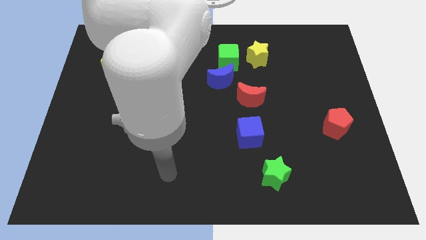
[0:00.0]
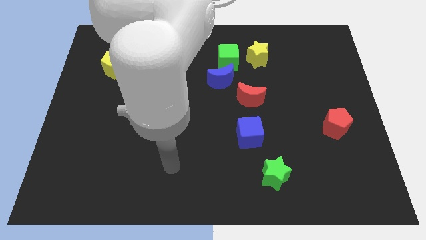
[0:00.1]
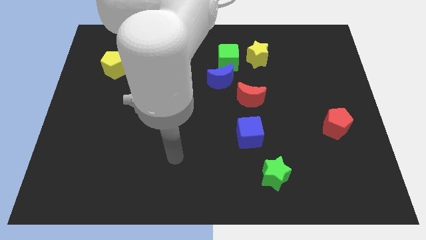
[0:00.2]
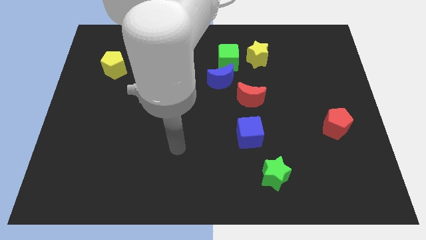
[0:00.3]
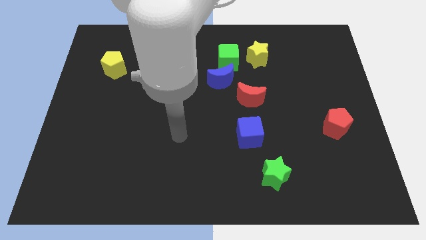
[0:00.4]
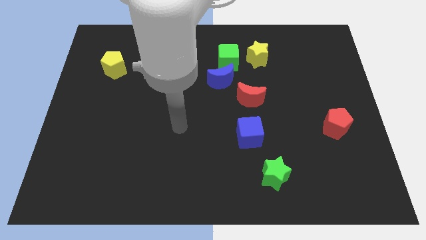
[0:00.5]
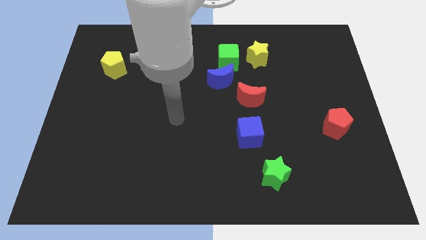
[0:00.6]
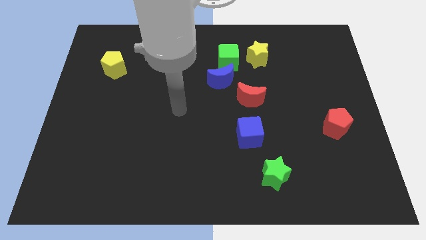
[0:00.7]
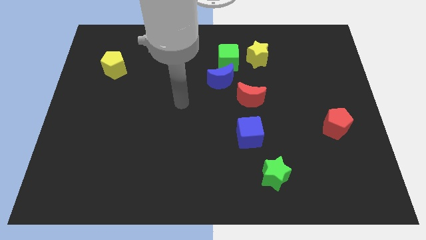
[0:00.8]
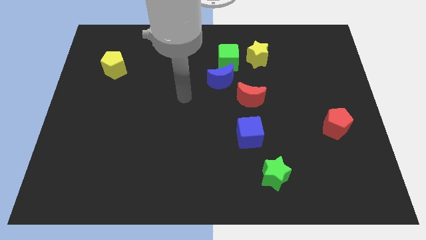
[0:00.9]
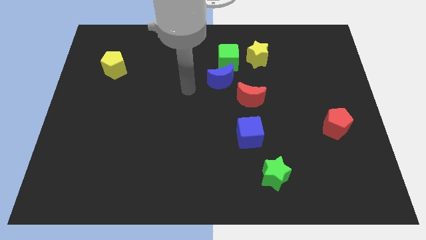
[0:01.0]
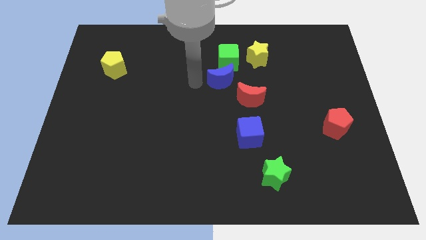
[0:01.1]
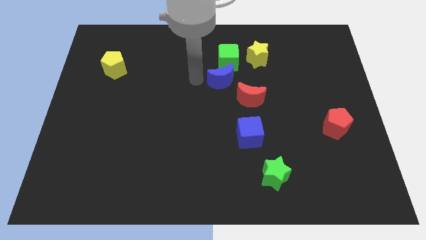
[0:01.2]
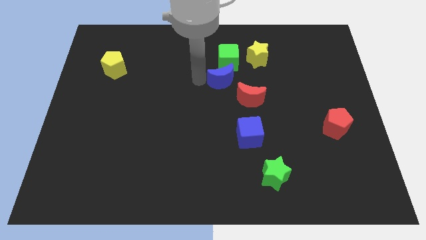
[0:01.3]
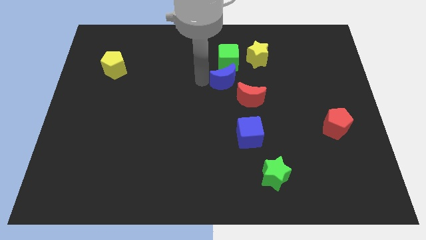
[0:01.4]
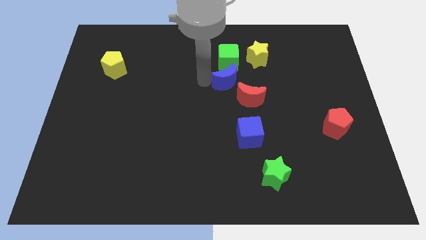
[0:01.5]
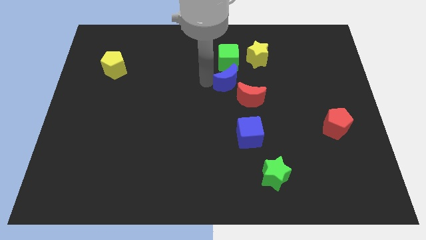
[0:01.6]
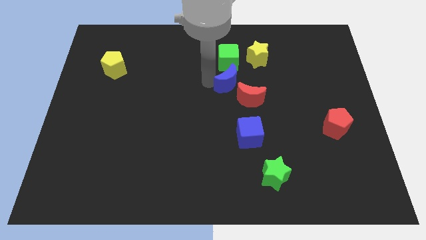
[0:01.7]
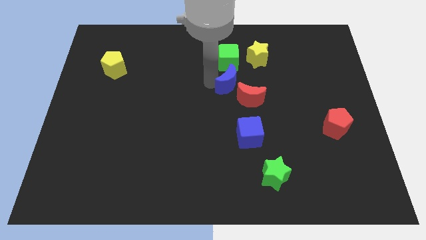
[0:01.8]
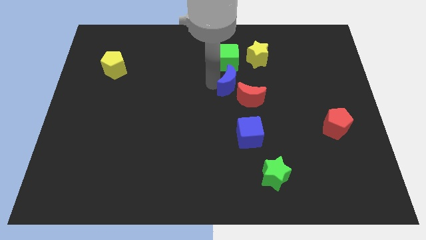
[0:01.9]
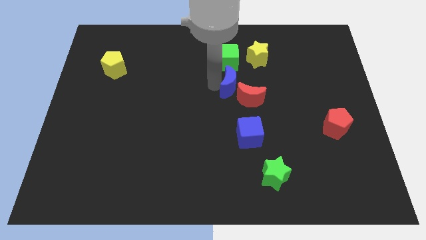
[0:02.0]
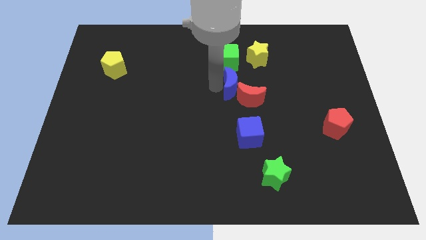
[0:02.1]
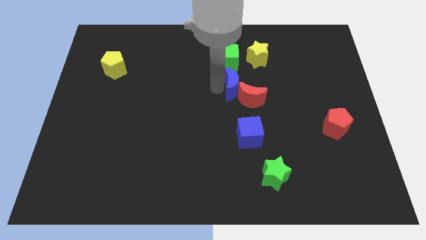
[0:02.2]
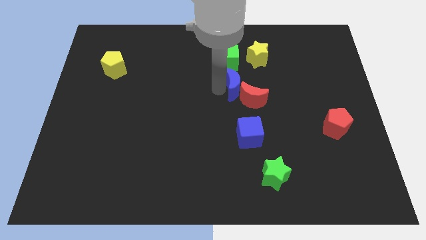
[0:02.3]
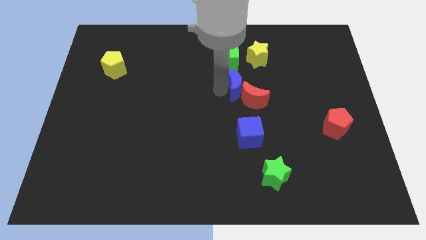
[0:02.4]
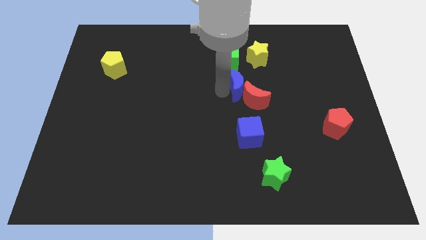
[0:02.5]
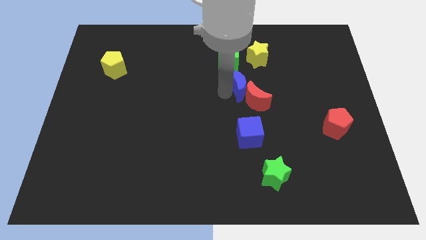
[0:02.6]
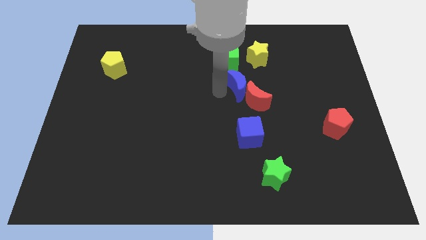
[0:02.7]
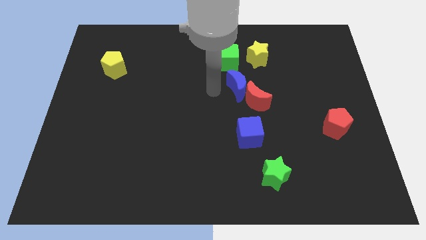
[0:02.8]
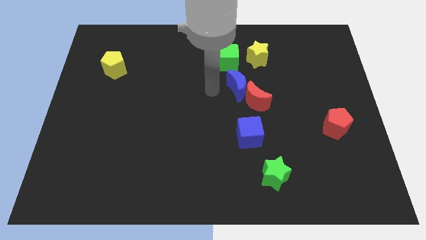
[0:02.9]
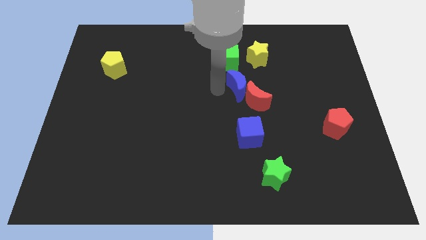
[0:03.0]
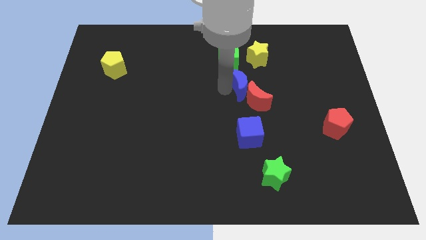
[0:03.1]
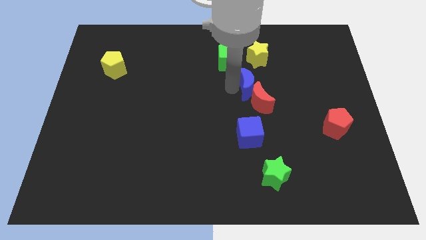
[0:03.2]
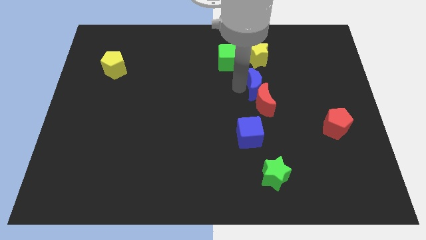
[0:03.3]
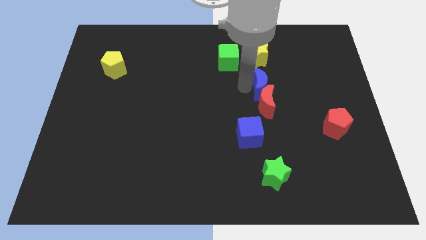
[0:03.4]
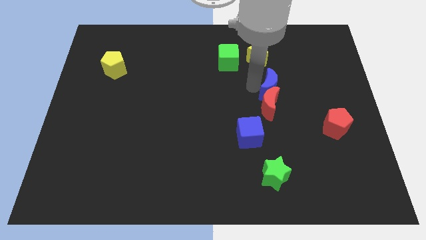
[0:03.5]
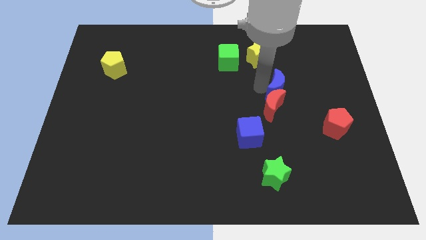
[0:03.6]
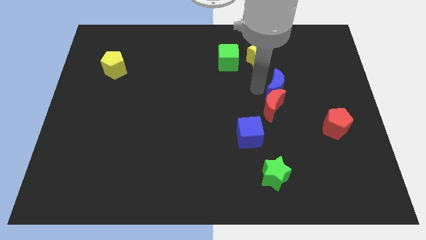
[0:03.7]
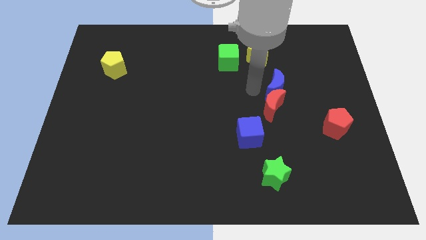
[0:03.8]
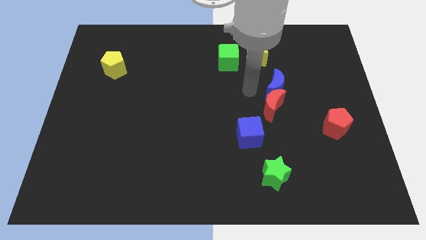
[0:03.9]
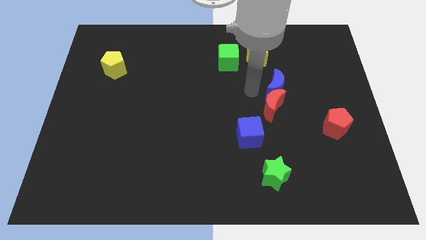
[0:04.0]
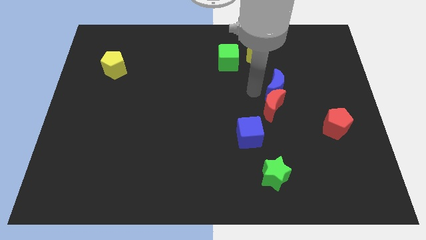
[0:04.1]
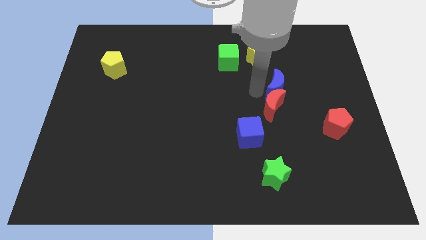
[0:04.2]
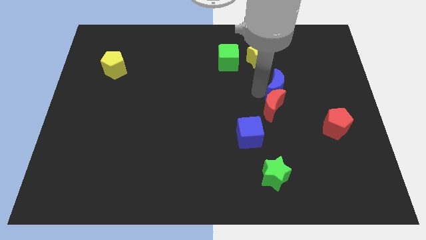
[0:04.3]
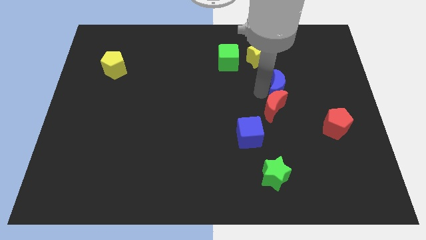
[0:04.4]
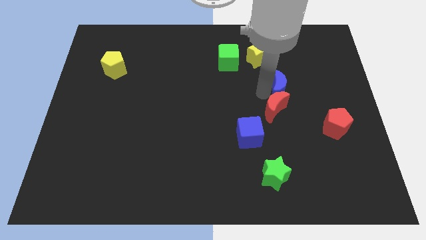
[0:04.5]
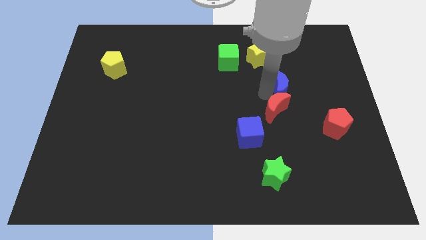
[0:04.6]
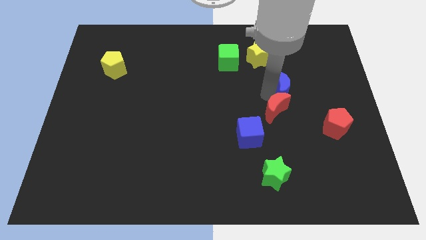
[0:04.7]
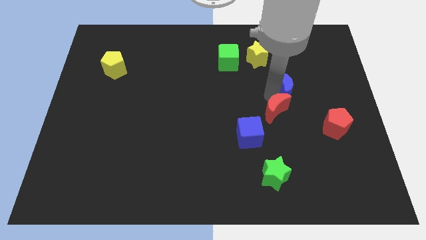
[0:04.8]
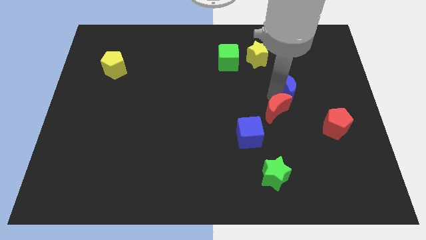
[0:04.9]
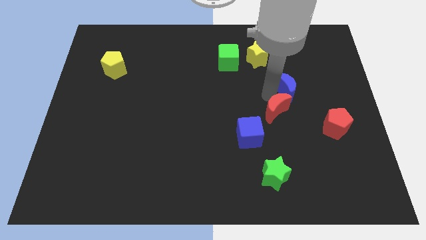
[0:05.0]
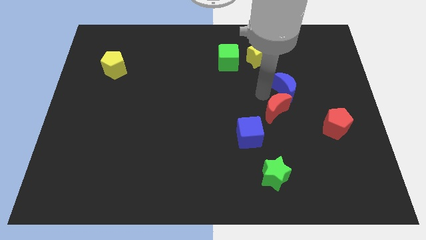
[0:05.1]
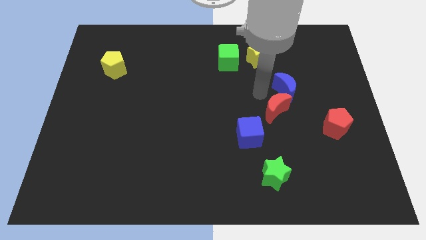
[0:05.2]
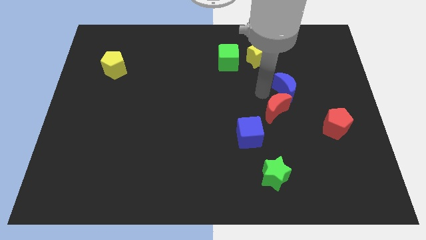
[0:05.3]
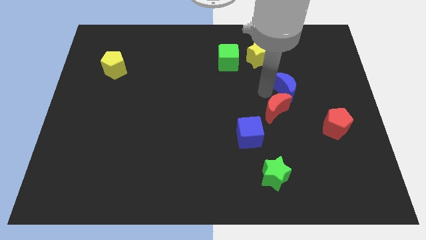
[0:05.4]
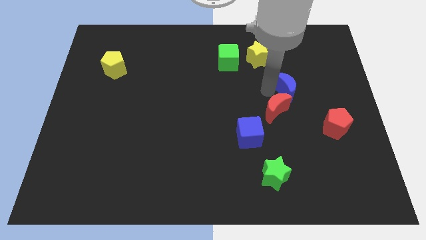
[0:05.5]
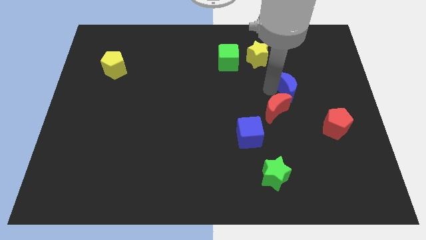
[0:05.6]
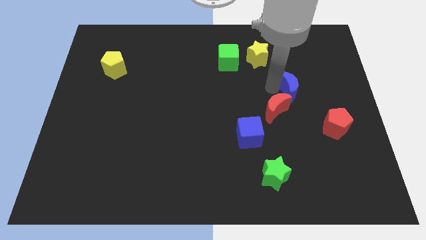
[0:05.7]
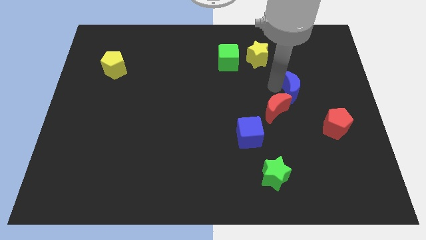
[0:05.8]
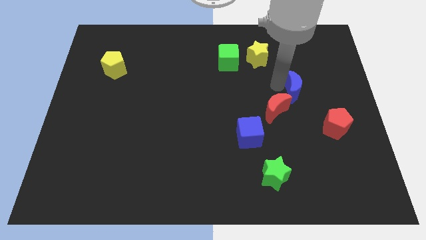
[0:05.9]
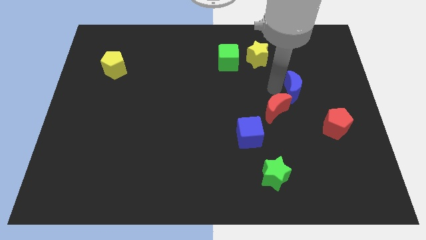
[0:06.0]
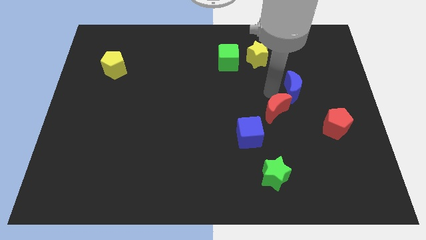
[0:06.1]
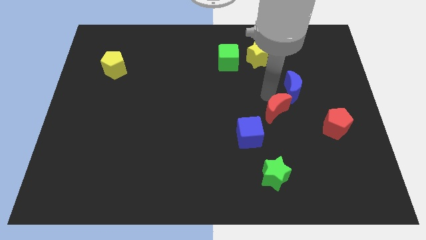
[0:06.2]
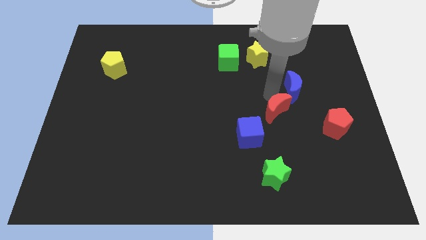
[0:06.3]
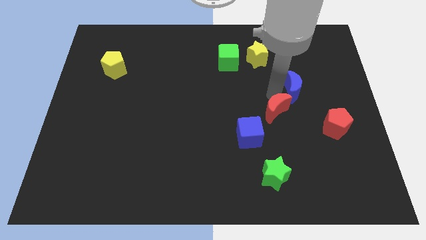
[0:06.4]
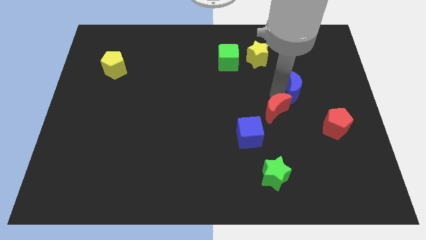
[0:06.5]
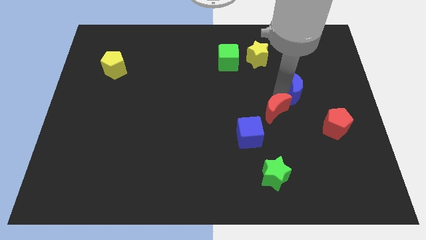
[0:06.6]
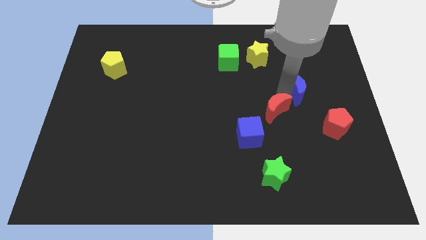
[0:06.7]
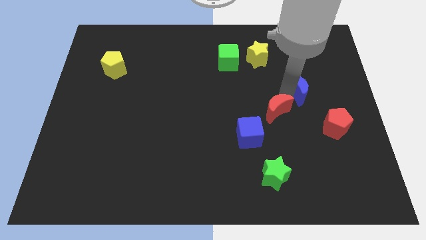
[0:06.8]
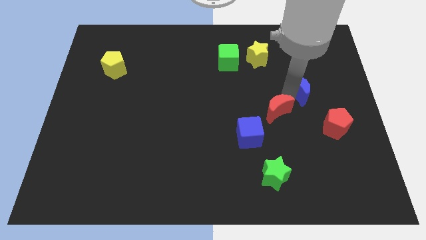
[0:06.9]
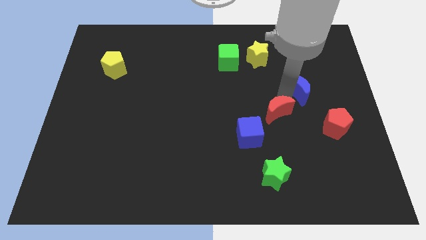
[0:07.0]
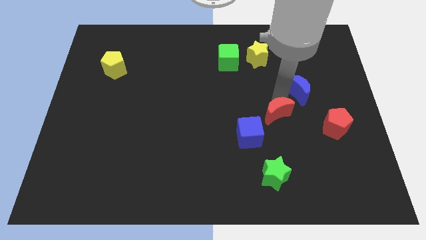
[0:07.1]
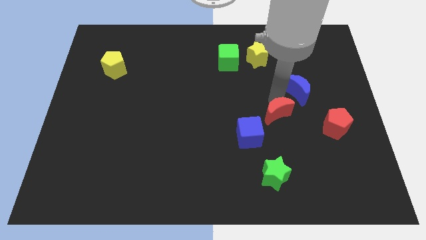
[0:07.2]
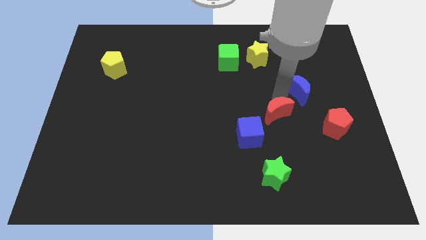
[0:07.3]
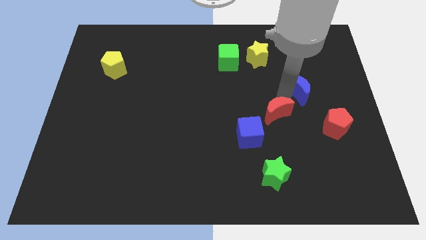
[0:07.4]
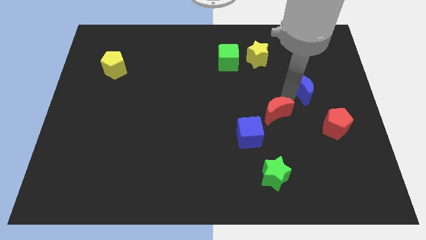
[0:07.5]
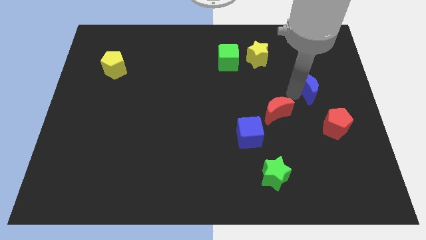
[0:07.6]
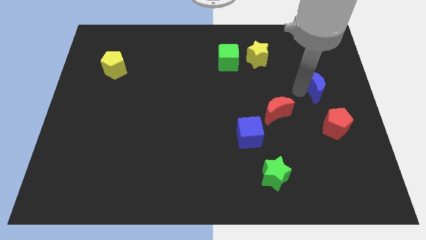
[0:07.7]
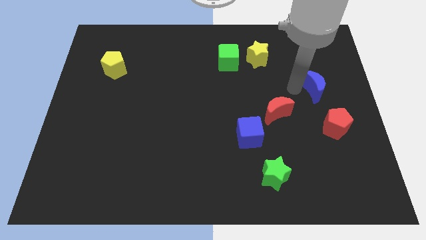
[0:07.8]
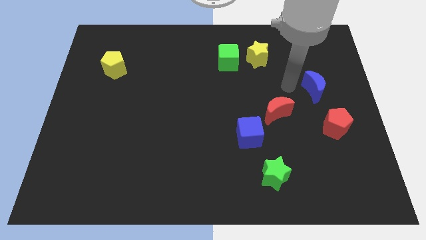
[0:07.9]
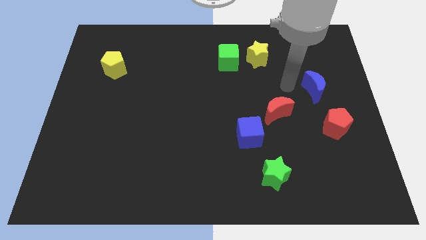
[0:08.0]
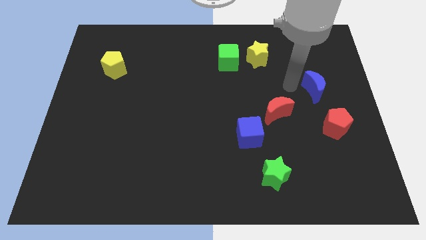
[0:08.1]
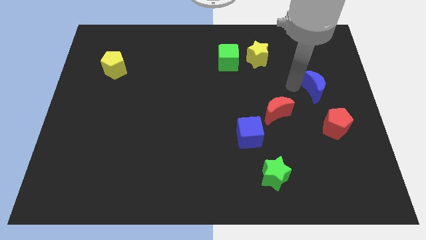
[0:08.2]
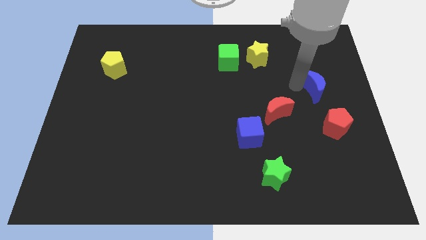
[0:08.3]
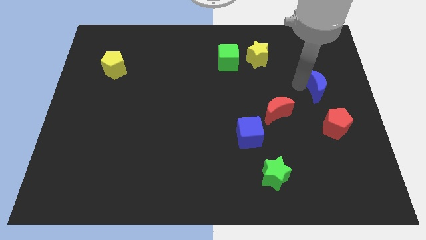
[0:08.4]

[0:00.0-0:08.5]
slide the blue moon to the right side of the board
